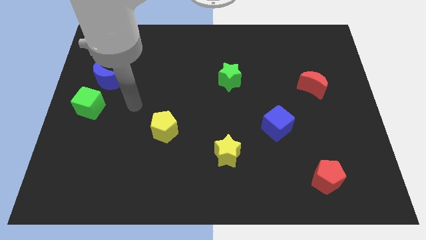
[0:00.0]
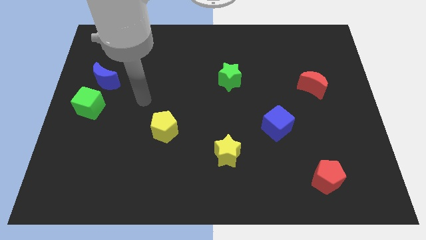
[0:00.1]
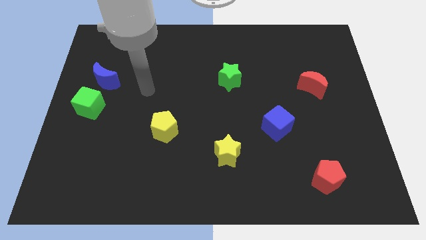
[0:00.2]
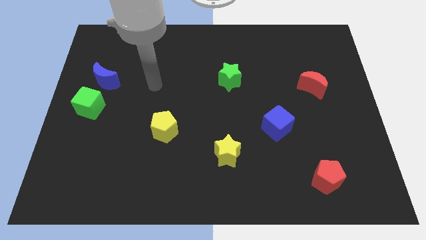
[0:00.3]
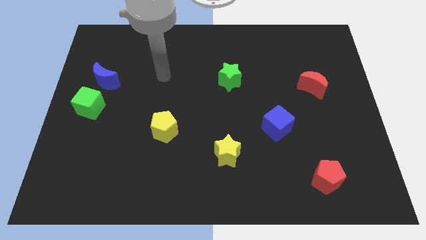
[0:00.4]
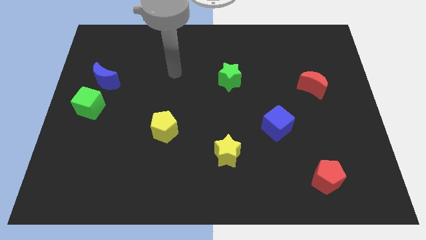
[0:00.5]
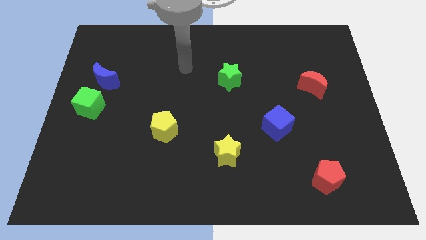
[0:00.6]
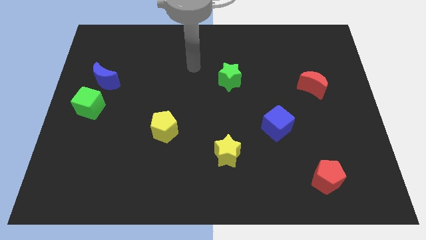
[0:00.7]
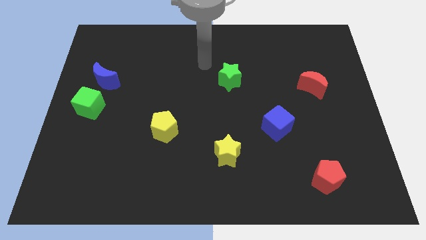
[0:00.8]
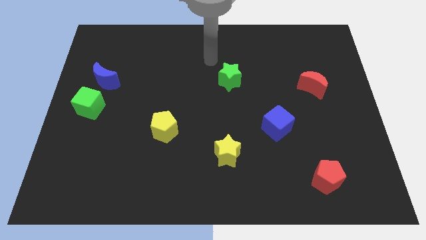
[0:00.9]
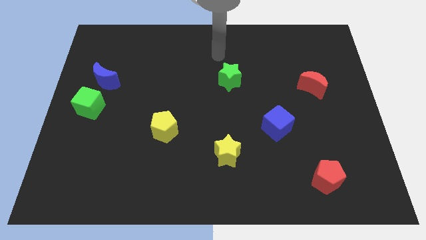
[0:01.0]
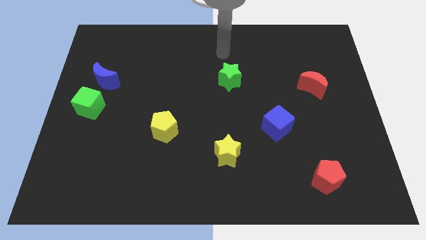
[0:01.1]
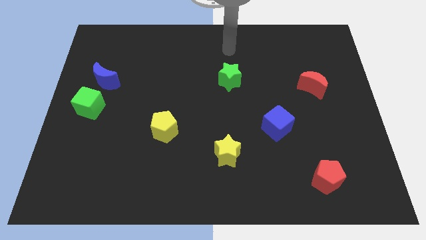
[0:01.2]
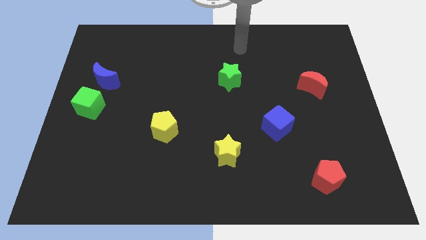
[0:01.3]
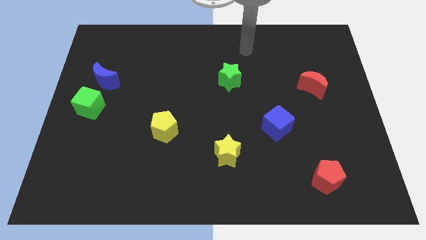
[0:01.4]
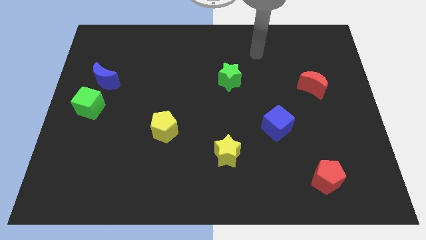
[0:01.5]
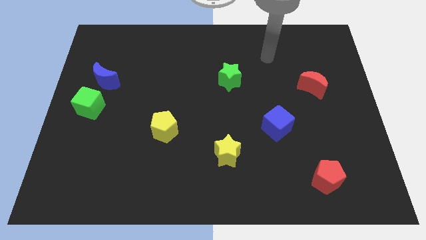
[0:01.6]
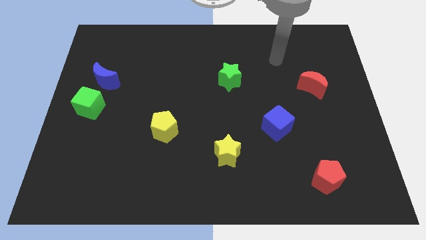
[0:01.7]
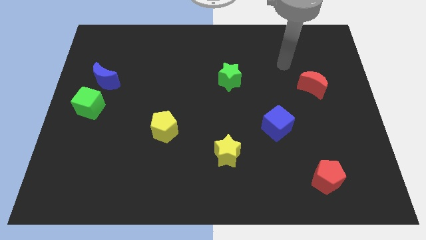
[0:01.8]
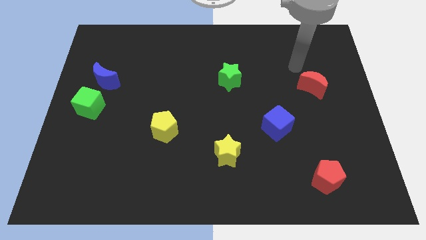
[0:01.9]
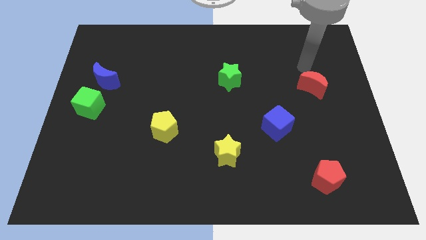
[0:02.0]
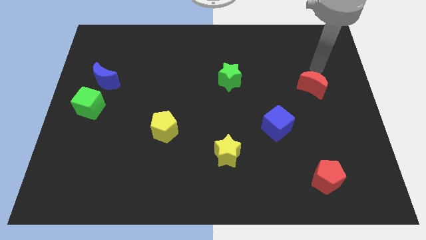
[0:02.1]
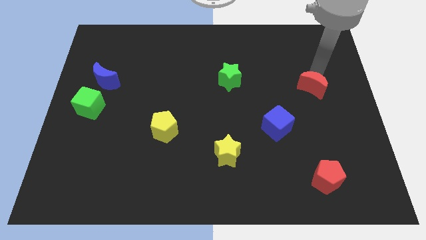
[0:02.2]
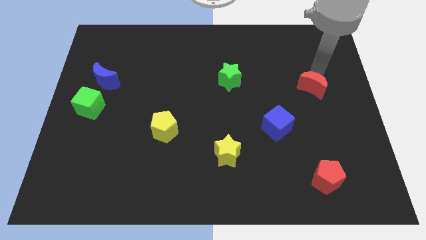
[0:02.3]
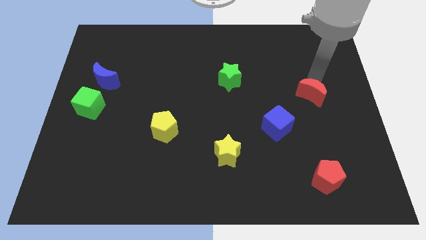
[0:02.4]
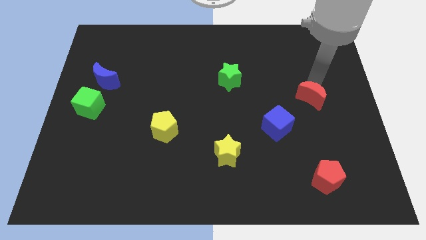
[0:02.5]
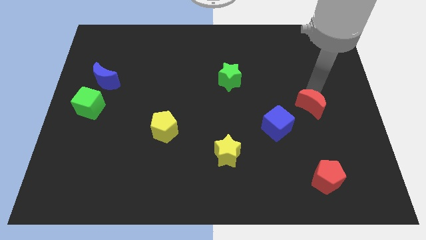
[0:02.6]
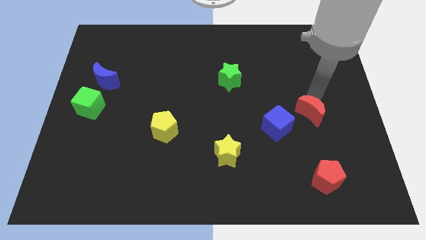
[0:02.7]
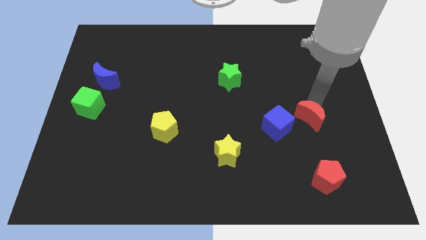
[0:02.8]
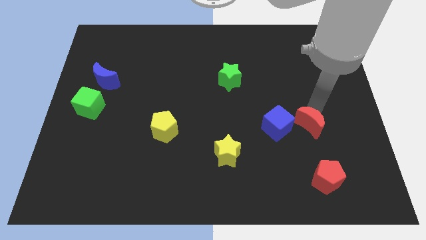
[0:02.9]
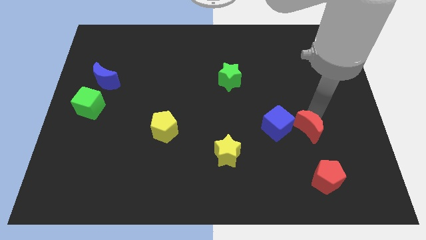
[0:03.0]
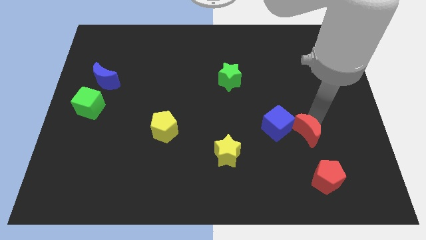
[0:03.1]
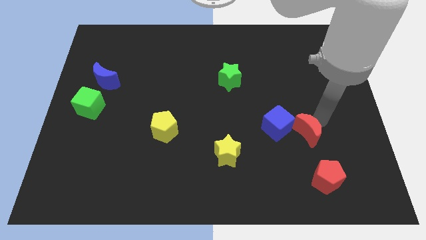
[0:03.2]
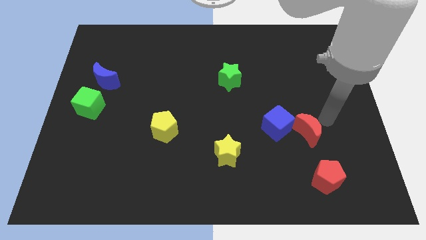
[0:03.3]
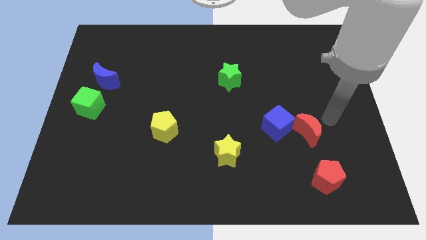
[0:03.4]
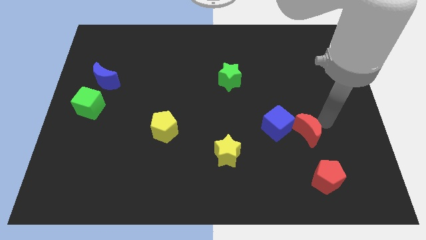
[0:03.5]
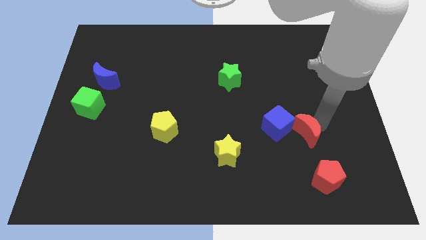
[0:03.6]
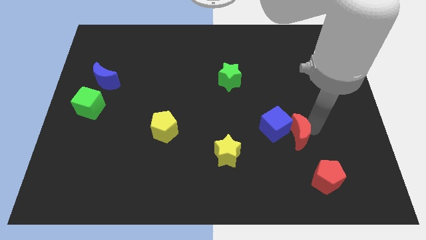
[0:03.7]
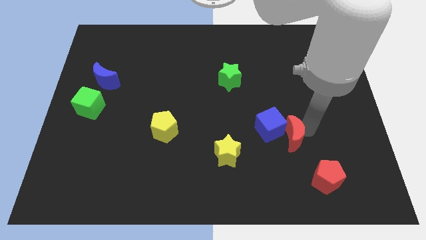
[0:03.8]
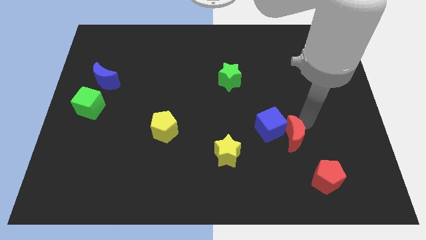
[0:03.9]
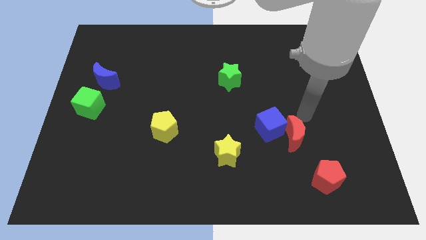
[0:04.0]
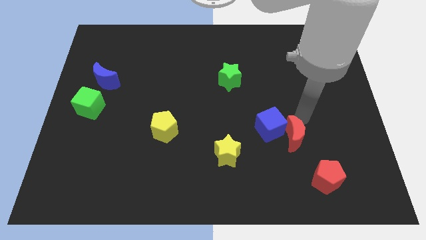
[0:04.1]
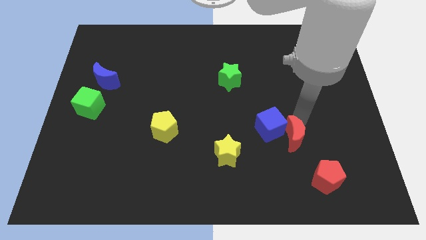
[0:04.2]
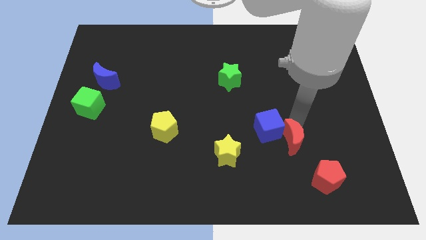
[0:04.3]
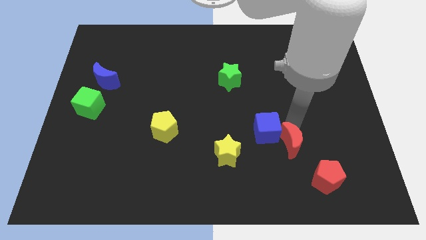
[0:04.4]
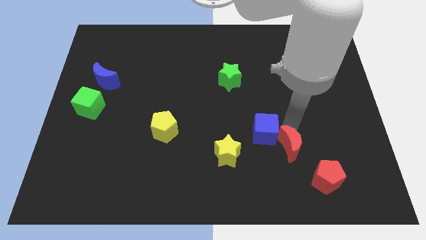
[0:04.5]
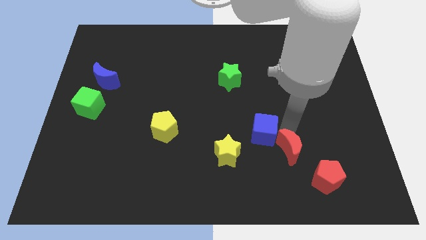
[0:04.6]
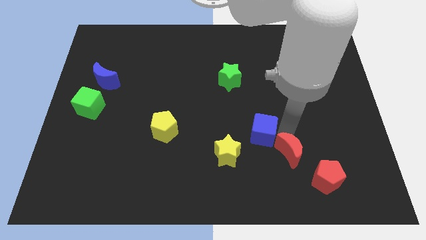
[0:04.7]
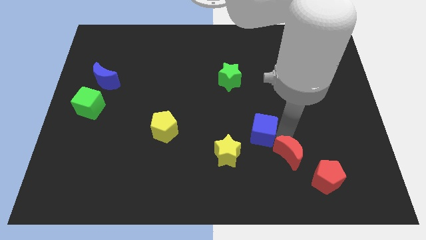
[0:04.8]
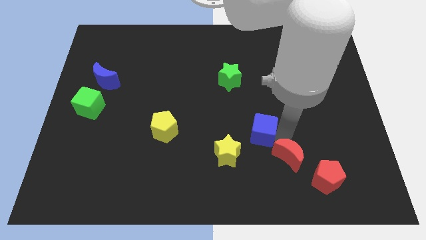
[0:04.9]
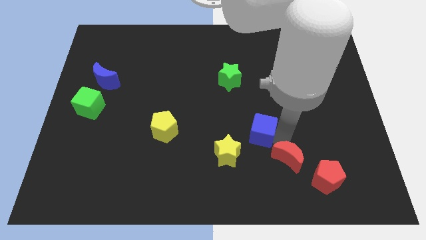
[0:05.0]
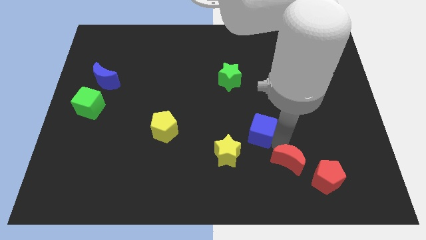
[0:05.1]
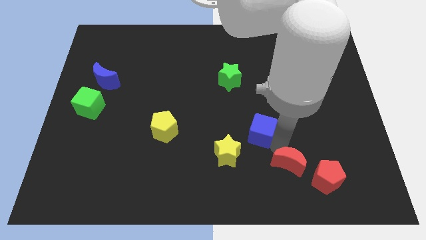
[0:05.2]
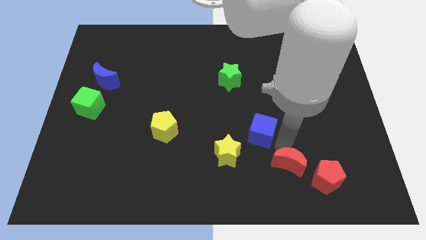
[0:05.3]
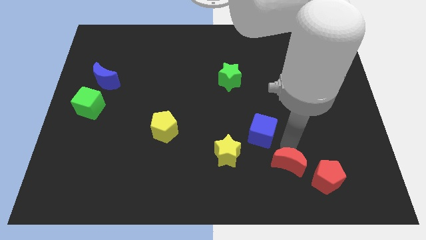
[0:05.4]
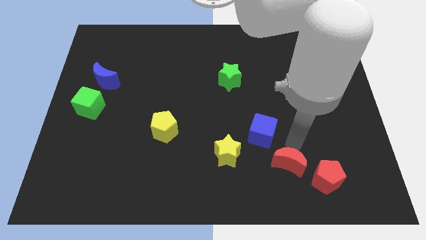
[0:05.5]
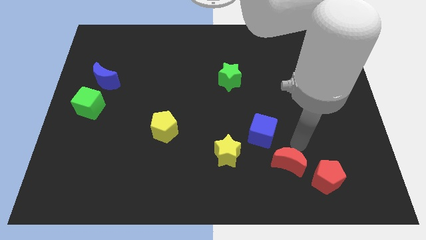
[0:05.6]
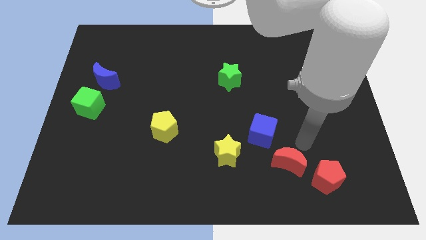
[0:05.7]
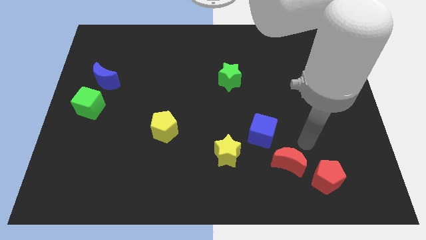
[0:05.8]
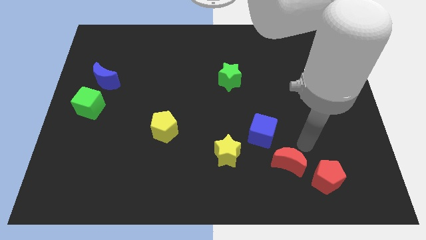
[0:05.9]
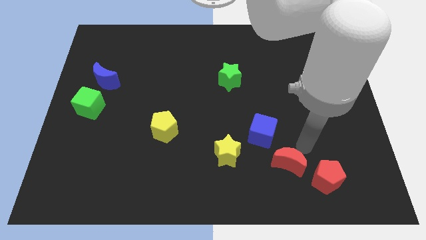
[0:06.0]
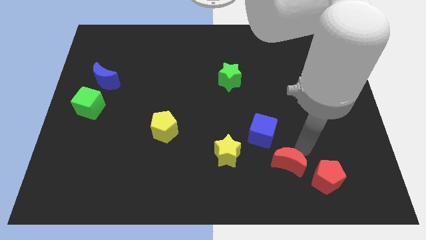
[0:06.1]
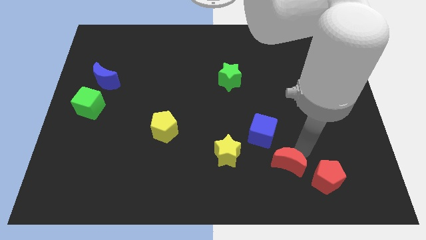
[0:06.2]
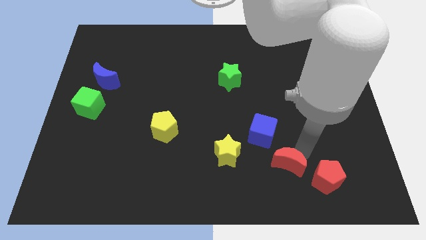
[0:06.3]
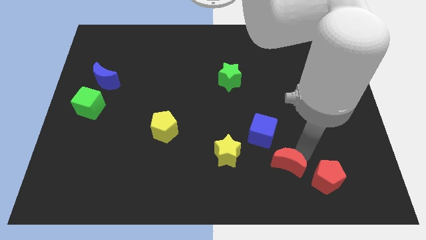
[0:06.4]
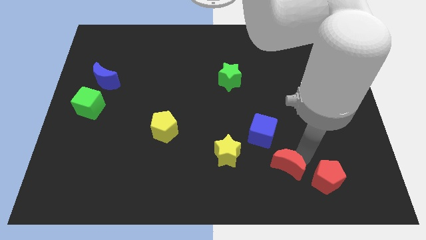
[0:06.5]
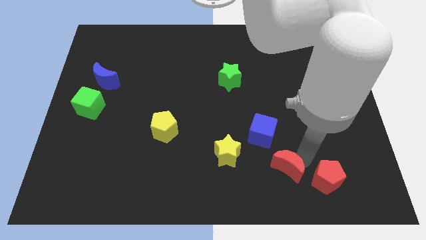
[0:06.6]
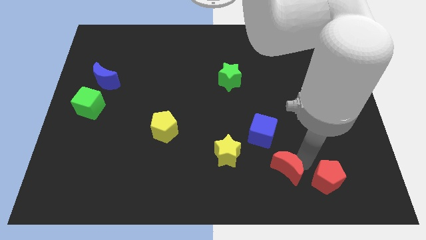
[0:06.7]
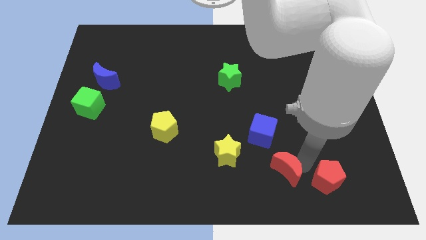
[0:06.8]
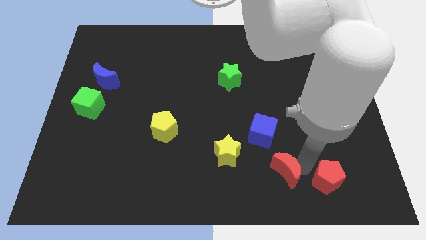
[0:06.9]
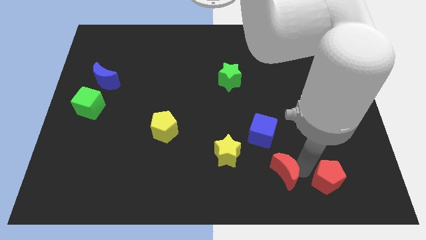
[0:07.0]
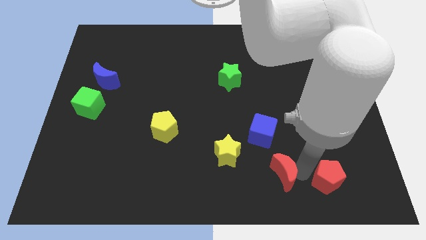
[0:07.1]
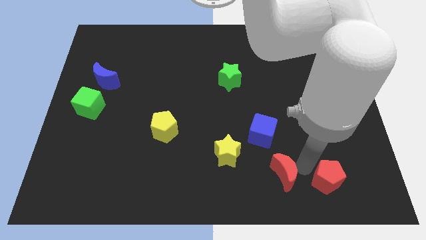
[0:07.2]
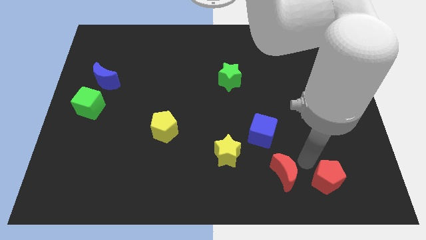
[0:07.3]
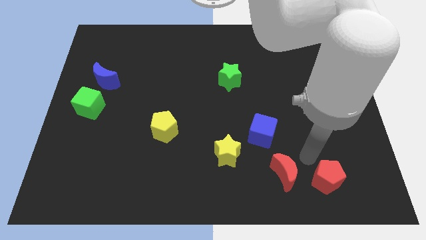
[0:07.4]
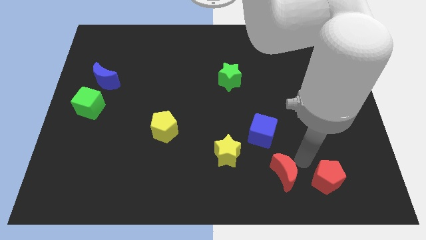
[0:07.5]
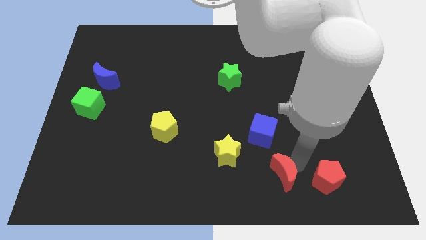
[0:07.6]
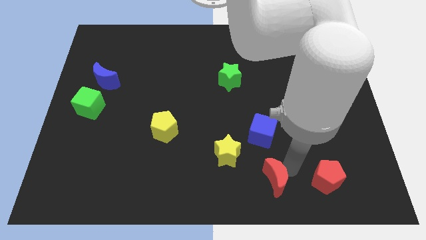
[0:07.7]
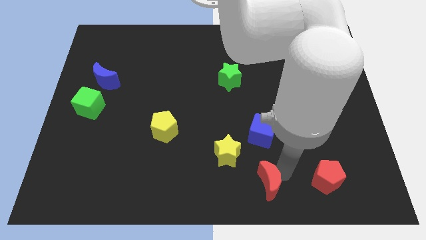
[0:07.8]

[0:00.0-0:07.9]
put the red moon to the bottom
